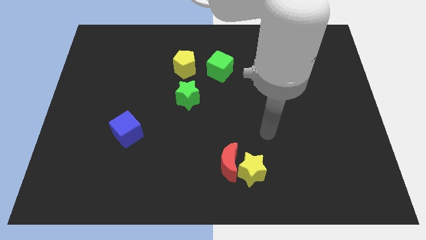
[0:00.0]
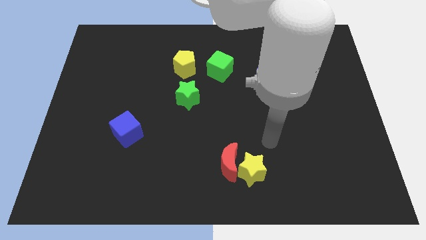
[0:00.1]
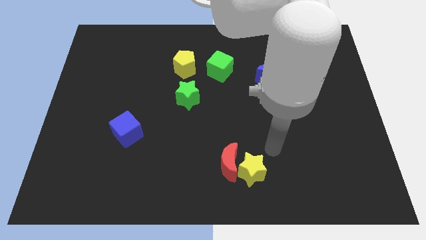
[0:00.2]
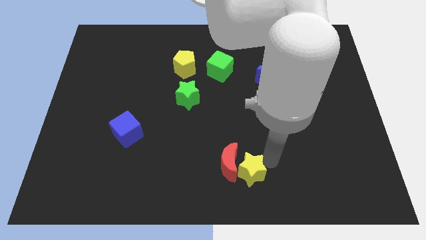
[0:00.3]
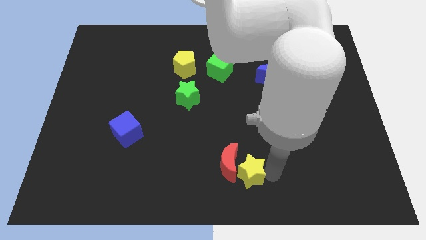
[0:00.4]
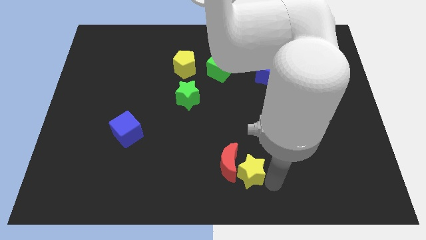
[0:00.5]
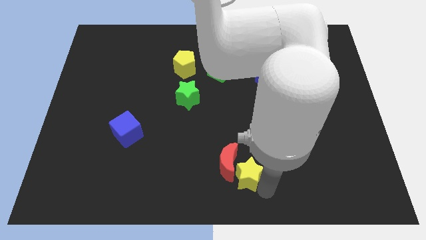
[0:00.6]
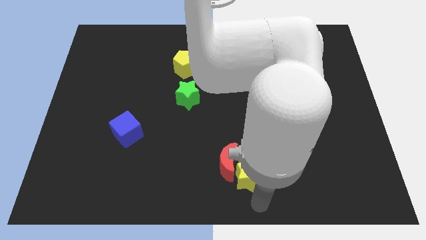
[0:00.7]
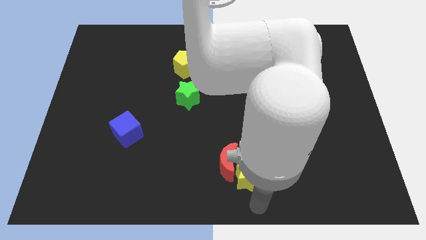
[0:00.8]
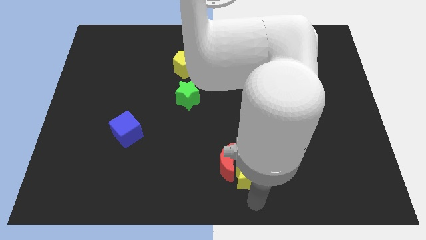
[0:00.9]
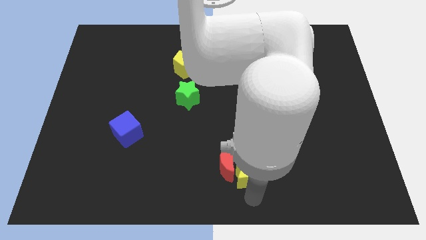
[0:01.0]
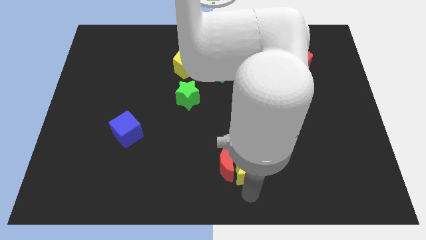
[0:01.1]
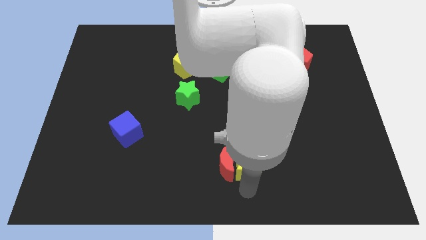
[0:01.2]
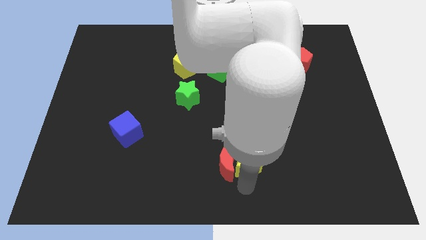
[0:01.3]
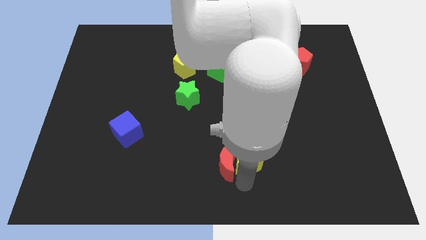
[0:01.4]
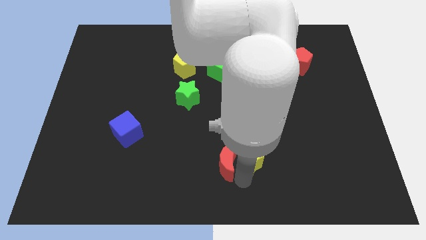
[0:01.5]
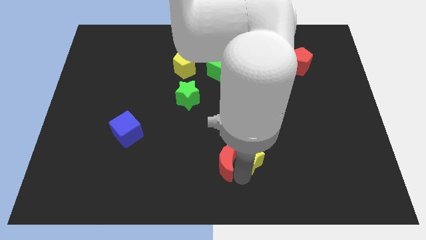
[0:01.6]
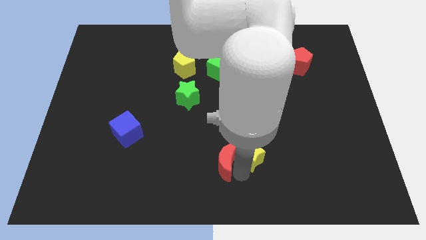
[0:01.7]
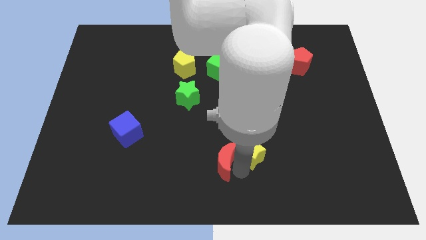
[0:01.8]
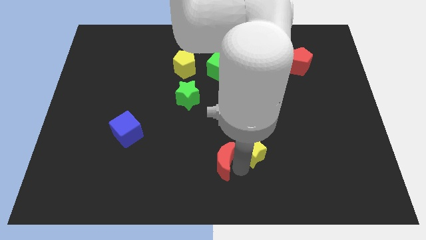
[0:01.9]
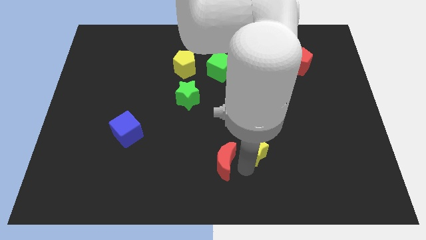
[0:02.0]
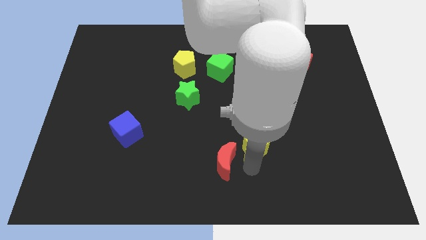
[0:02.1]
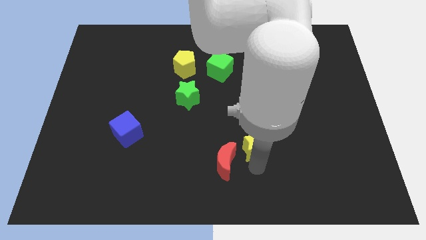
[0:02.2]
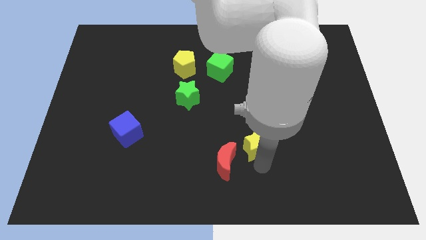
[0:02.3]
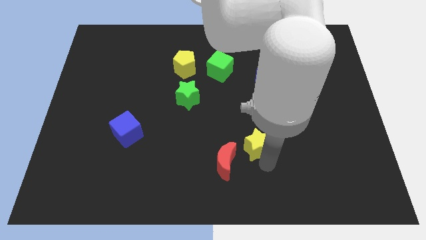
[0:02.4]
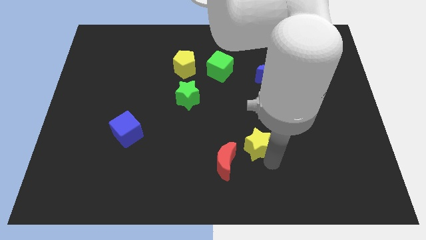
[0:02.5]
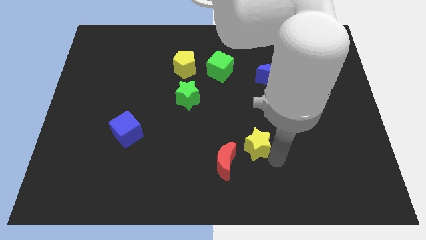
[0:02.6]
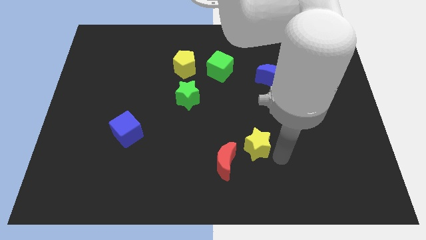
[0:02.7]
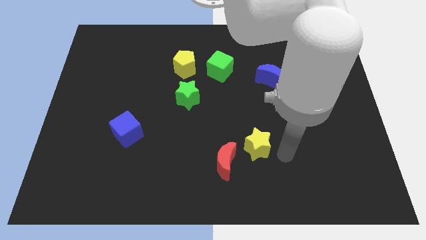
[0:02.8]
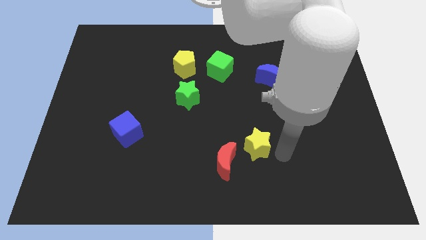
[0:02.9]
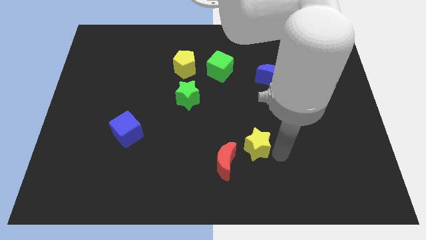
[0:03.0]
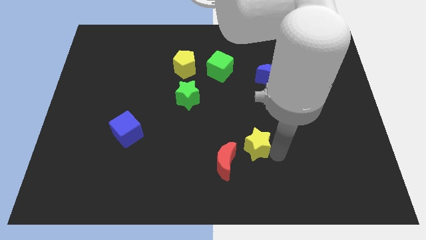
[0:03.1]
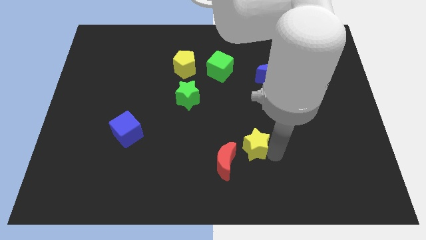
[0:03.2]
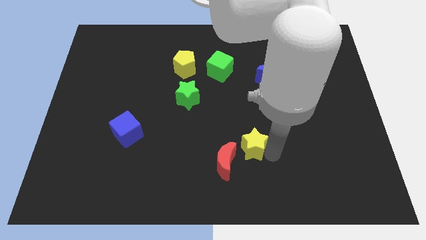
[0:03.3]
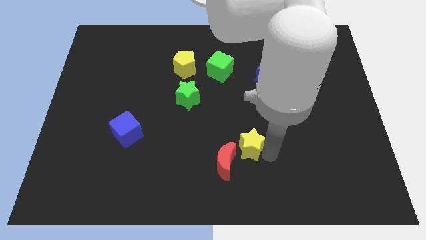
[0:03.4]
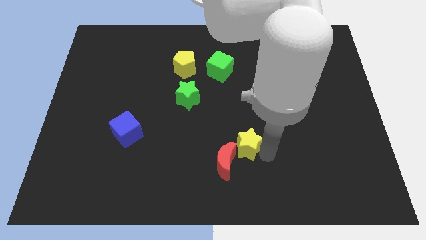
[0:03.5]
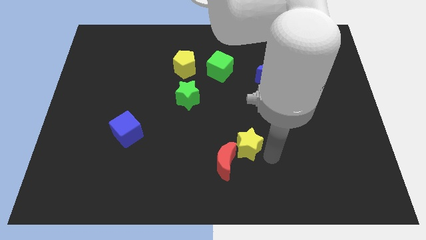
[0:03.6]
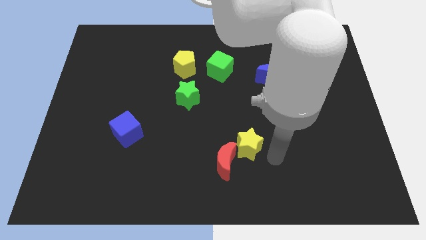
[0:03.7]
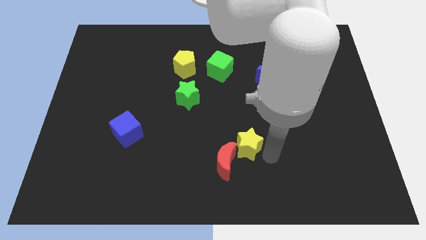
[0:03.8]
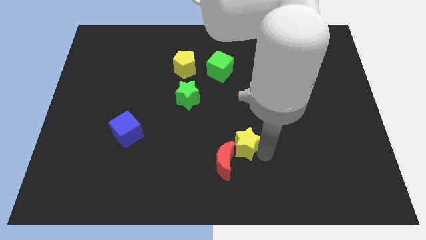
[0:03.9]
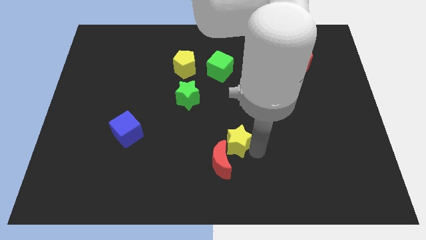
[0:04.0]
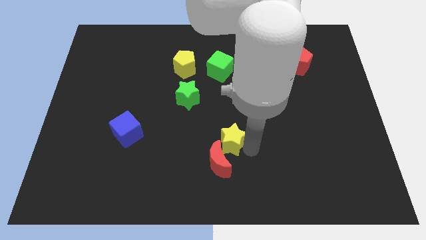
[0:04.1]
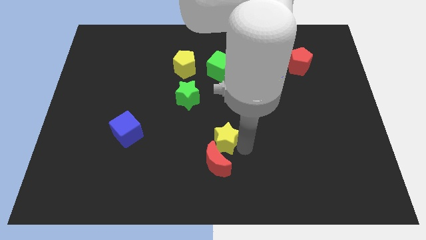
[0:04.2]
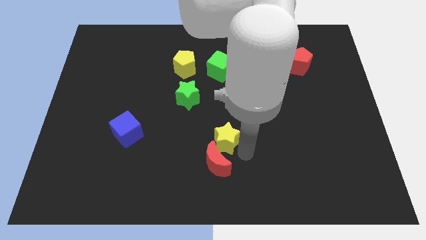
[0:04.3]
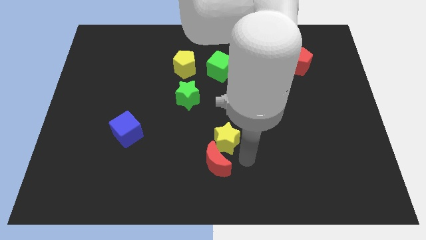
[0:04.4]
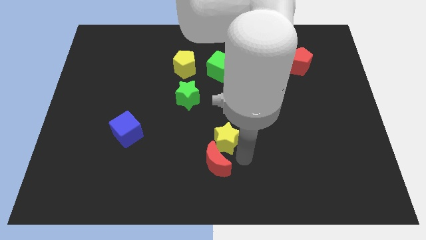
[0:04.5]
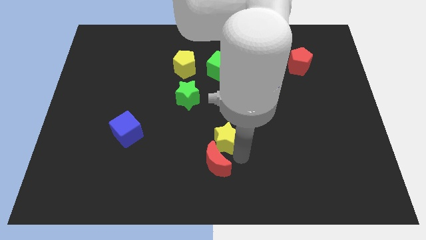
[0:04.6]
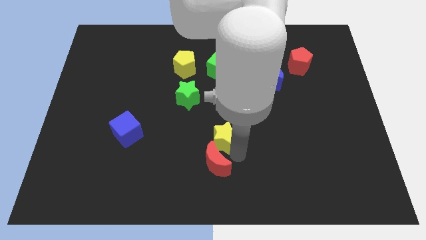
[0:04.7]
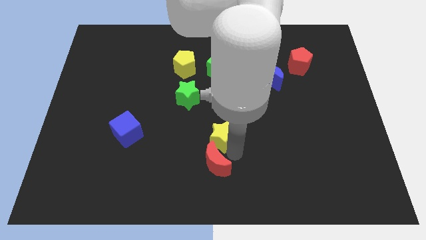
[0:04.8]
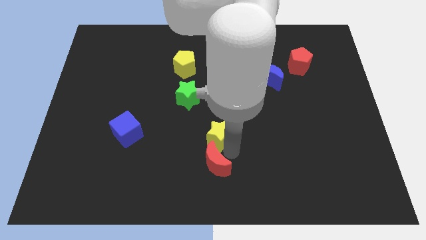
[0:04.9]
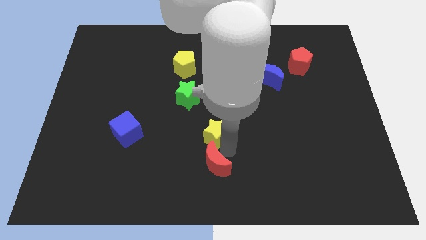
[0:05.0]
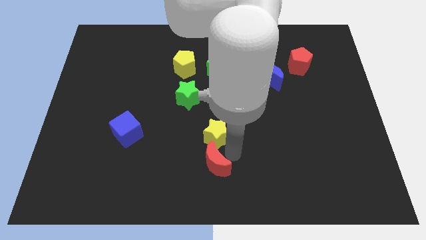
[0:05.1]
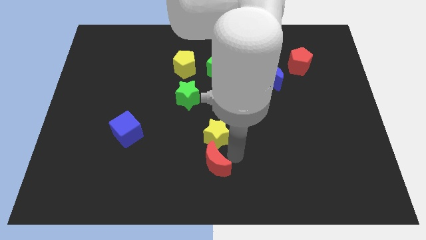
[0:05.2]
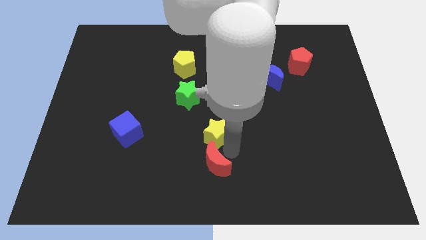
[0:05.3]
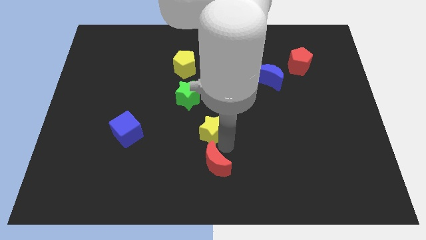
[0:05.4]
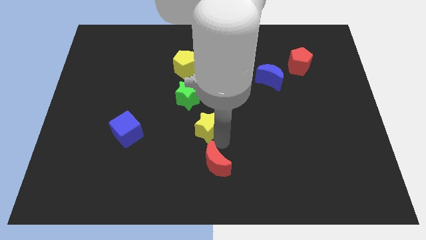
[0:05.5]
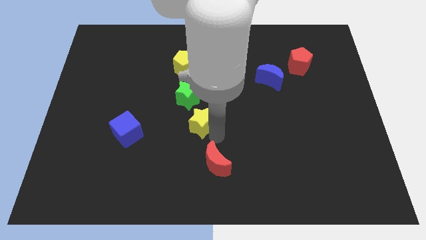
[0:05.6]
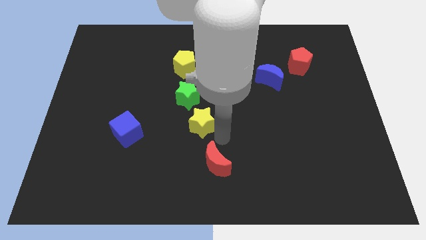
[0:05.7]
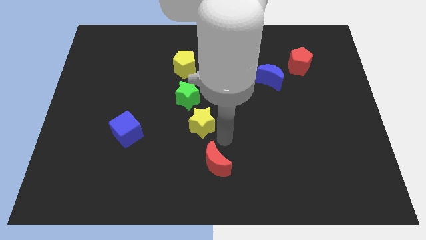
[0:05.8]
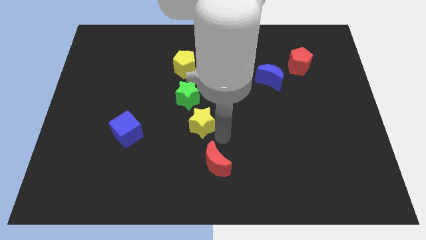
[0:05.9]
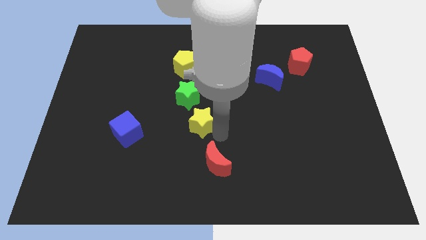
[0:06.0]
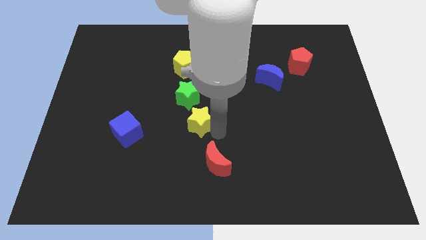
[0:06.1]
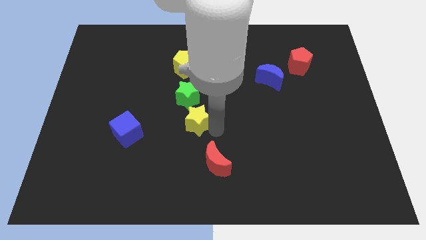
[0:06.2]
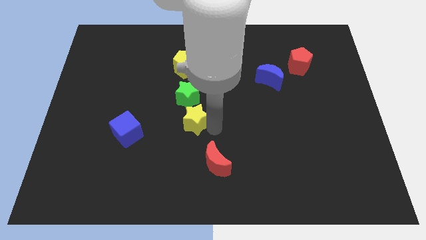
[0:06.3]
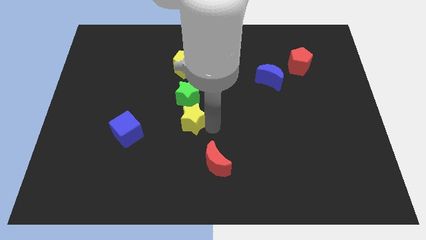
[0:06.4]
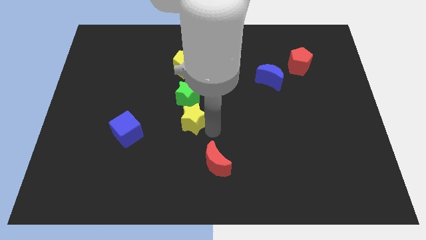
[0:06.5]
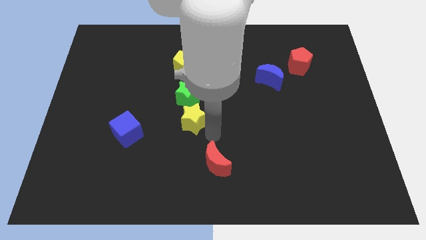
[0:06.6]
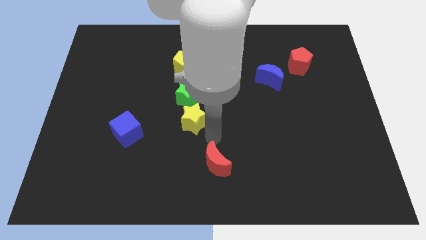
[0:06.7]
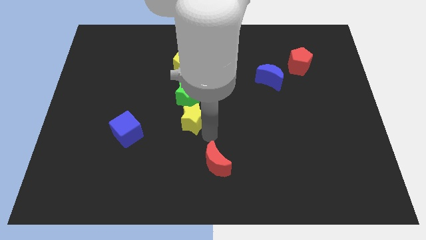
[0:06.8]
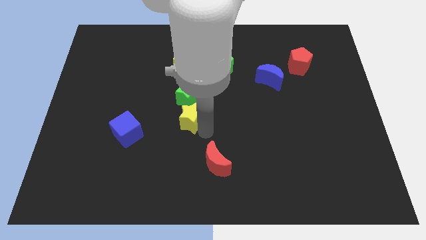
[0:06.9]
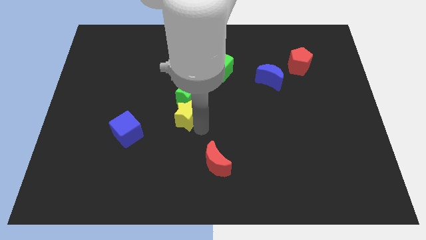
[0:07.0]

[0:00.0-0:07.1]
push the yellow star to the bottom side of the yellow pentagon

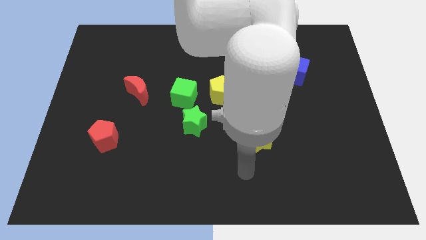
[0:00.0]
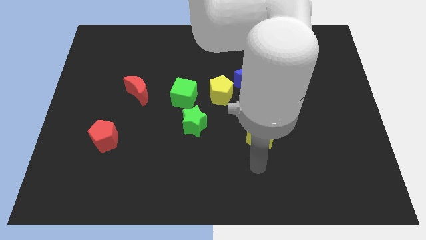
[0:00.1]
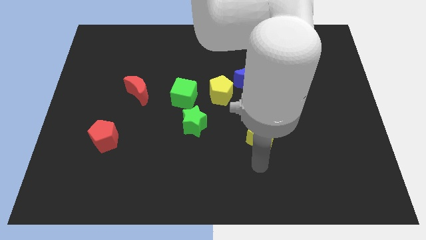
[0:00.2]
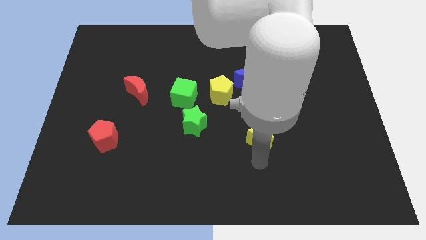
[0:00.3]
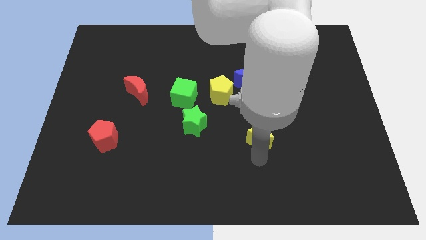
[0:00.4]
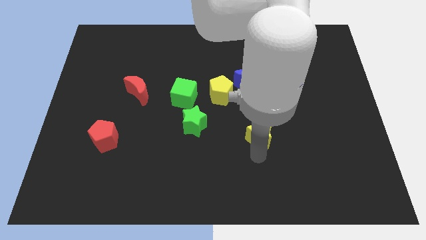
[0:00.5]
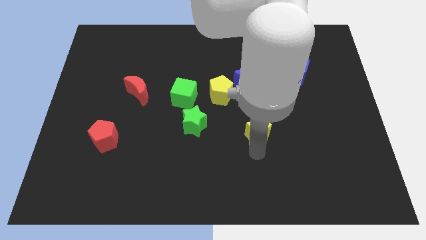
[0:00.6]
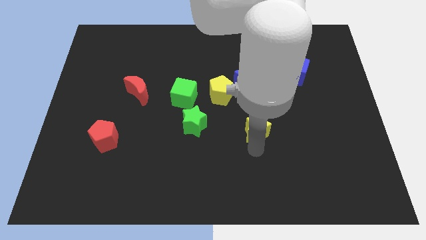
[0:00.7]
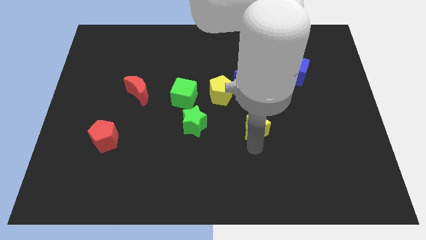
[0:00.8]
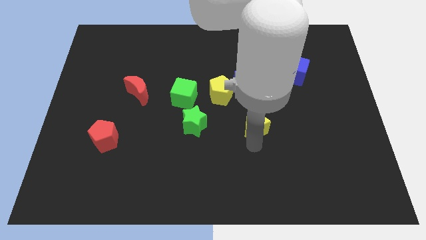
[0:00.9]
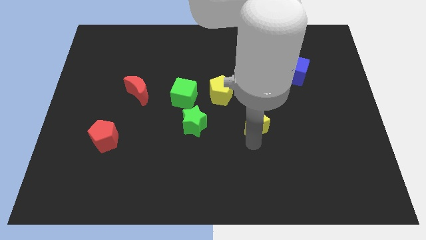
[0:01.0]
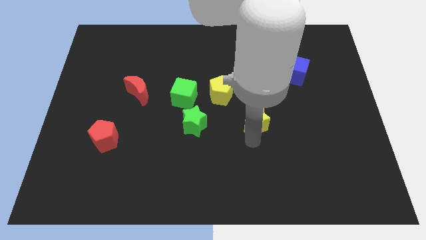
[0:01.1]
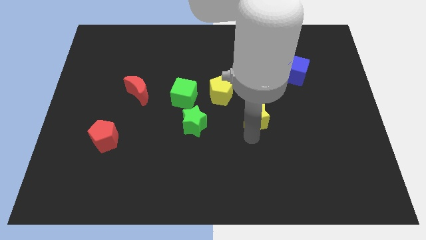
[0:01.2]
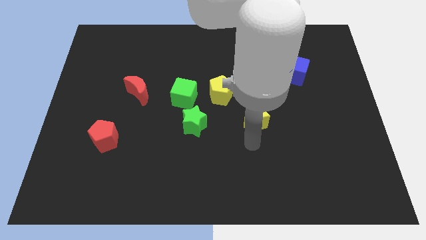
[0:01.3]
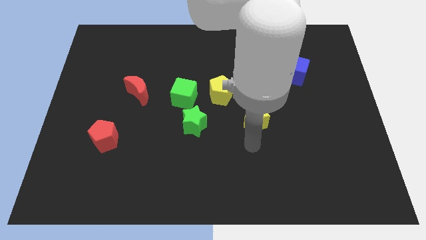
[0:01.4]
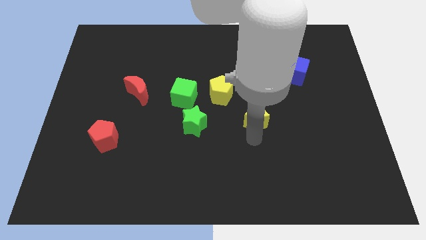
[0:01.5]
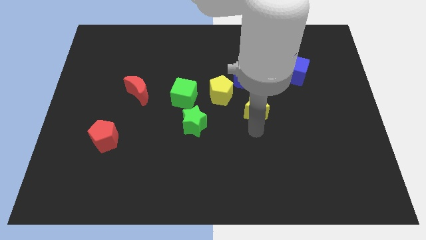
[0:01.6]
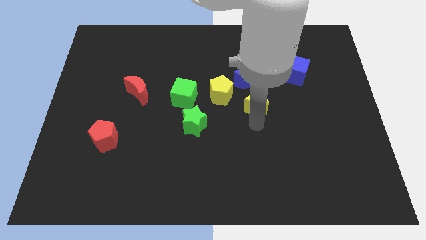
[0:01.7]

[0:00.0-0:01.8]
move the yellow star to the right side of the yellow pentagon
